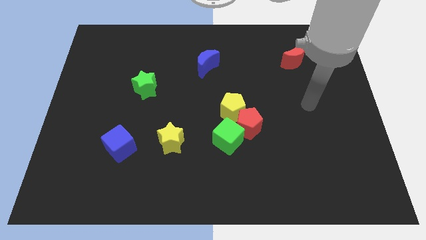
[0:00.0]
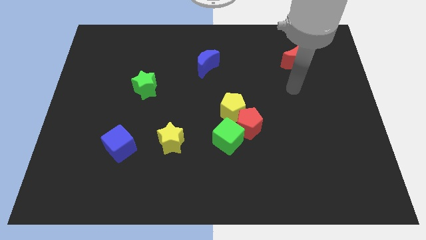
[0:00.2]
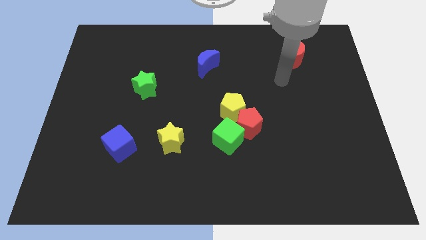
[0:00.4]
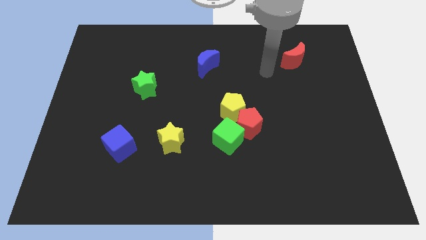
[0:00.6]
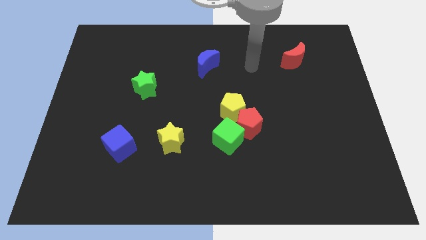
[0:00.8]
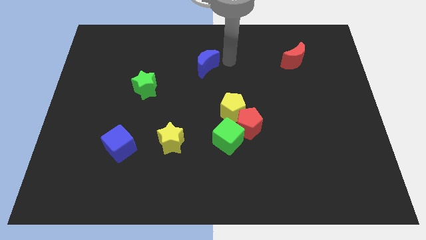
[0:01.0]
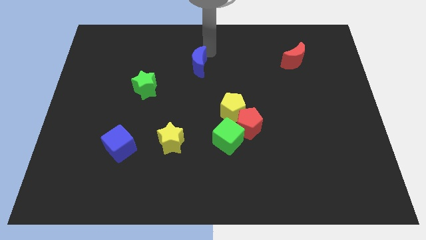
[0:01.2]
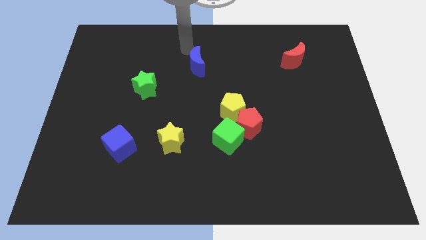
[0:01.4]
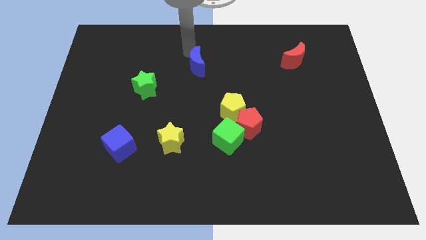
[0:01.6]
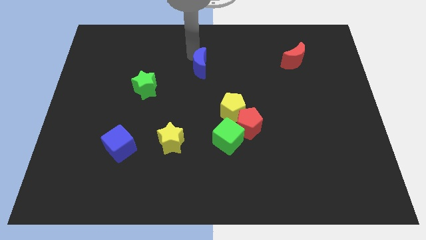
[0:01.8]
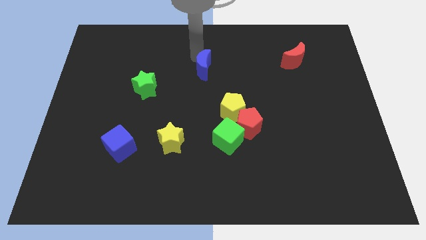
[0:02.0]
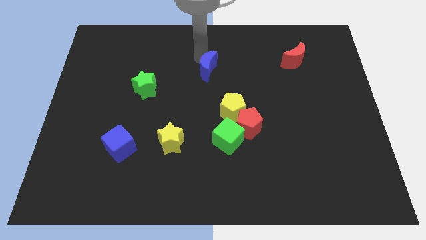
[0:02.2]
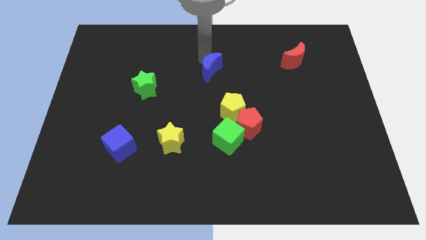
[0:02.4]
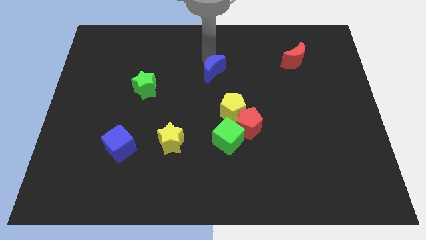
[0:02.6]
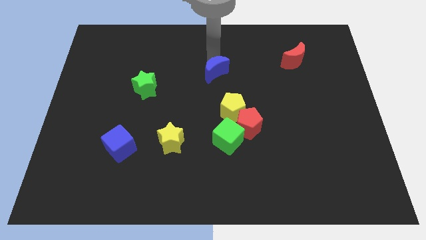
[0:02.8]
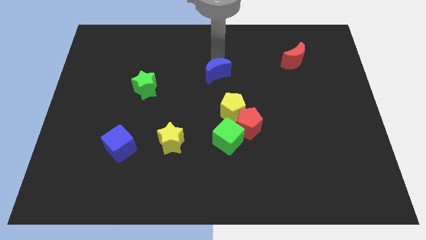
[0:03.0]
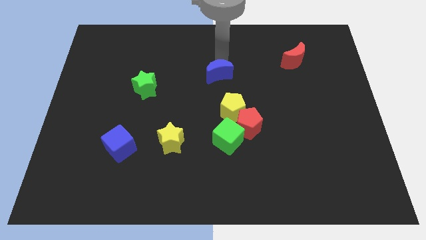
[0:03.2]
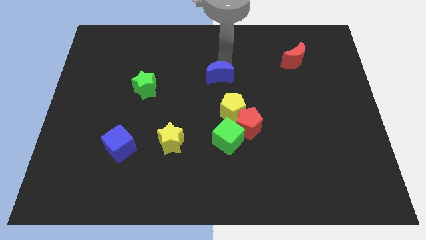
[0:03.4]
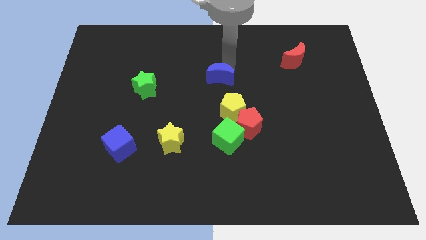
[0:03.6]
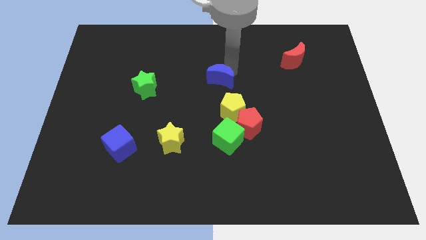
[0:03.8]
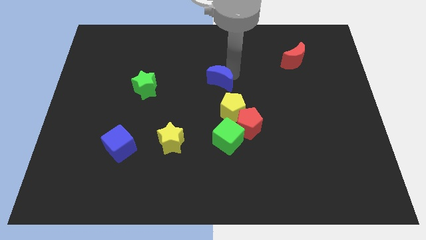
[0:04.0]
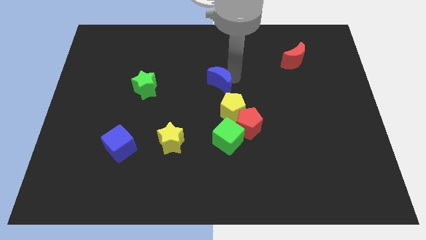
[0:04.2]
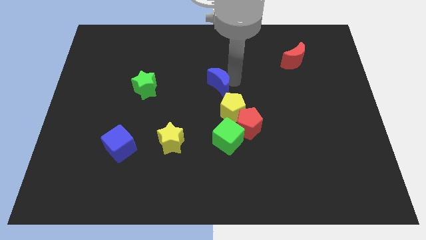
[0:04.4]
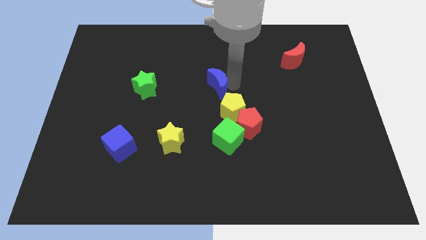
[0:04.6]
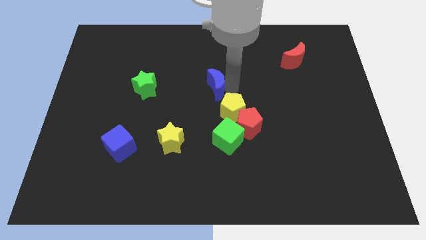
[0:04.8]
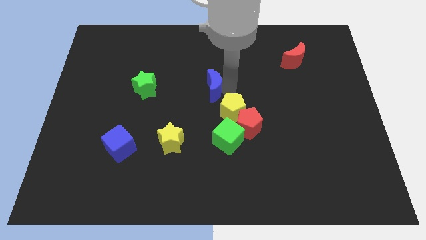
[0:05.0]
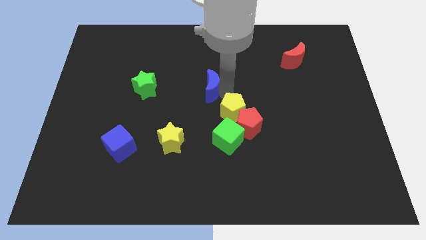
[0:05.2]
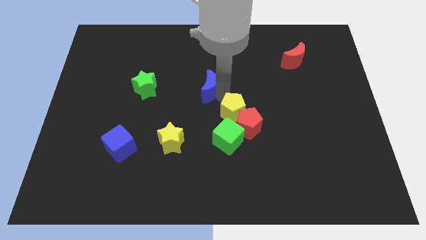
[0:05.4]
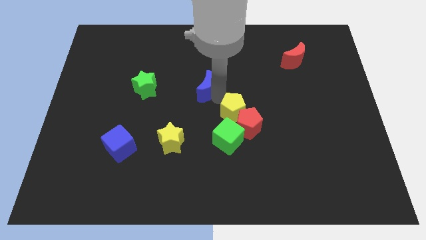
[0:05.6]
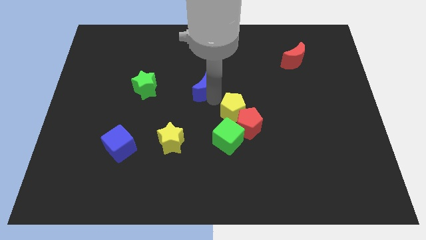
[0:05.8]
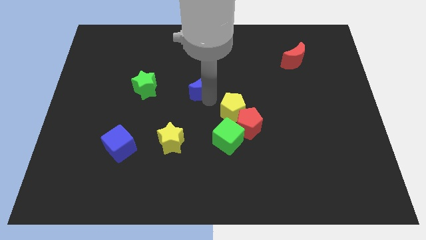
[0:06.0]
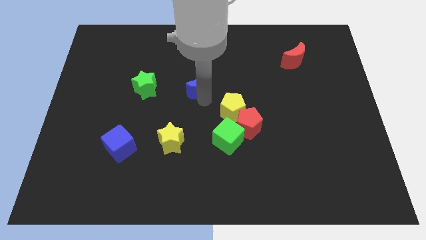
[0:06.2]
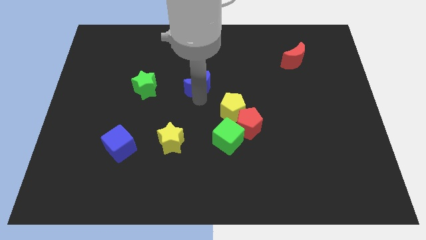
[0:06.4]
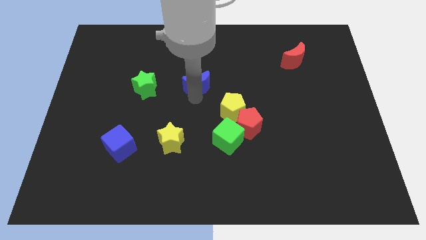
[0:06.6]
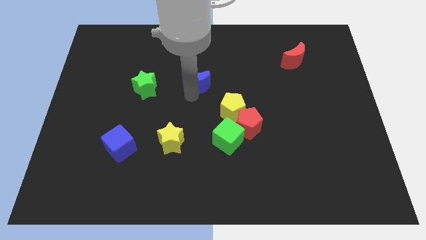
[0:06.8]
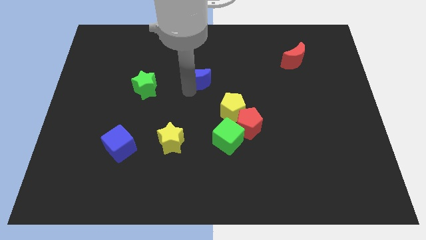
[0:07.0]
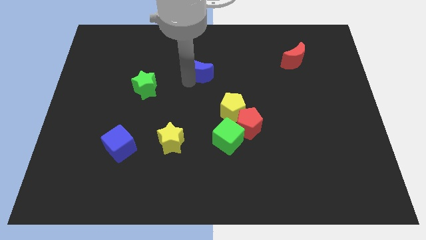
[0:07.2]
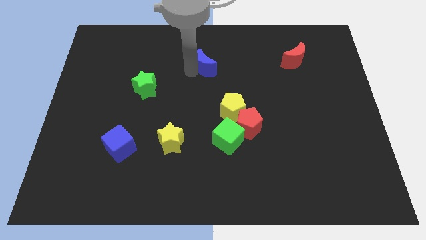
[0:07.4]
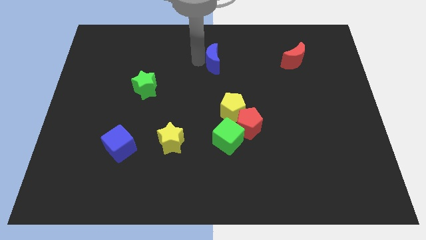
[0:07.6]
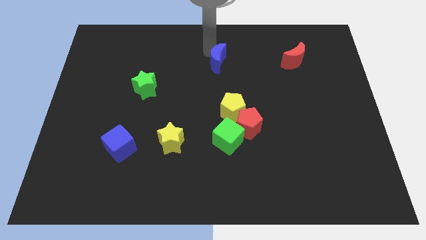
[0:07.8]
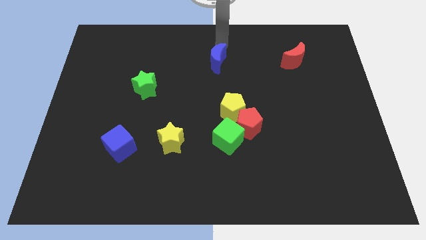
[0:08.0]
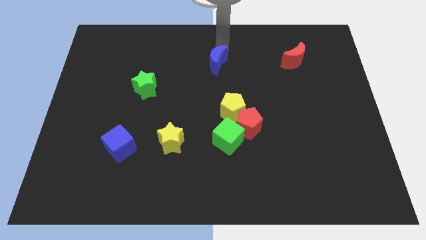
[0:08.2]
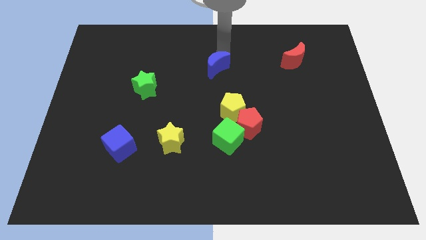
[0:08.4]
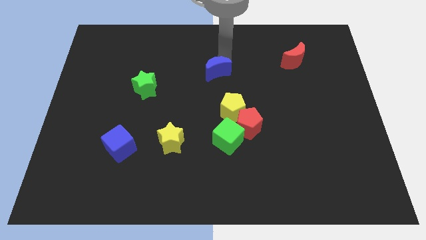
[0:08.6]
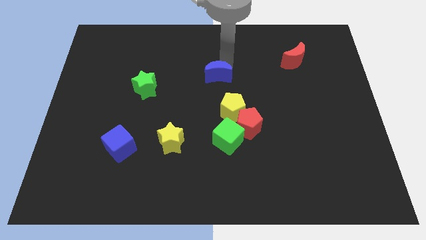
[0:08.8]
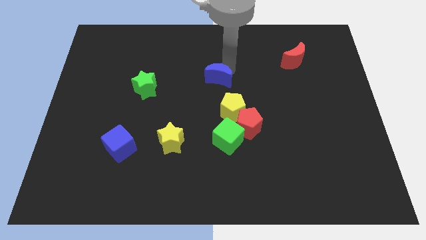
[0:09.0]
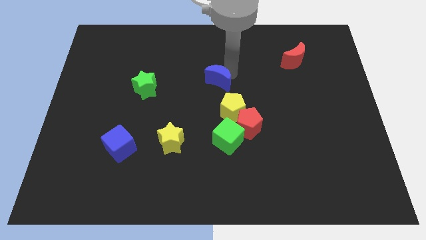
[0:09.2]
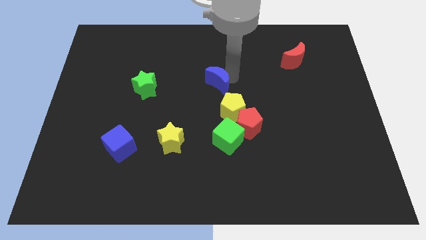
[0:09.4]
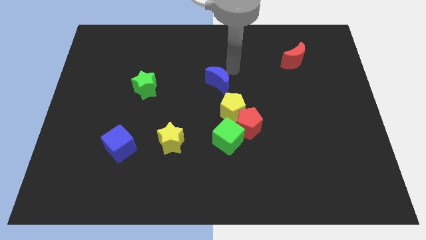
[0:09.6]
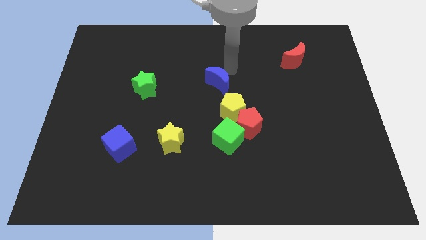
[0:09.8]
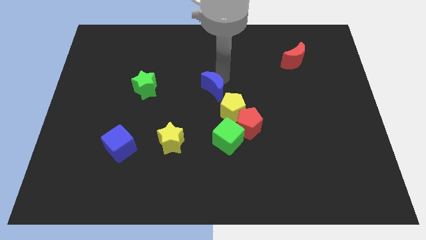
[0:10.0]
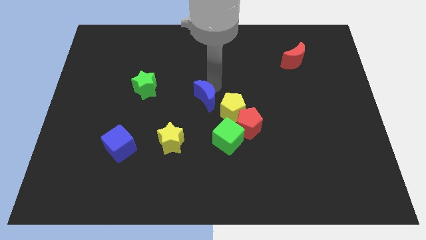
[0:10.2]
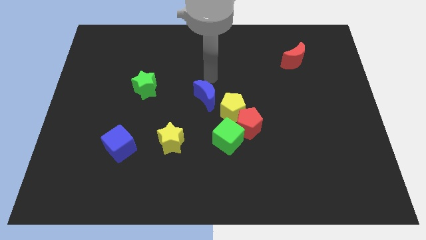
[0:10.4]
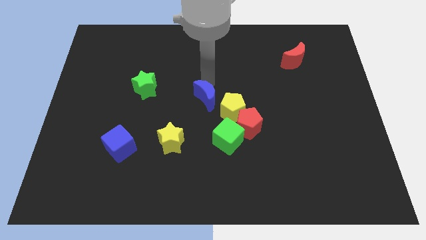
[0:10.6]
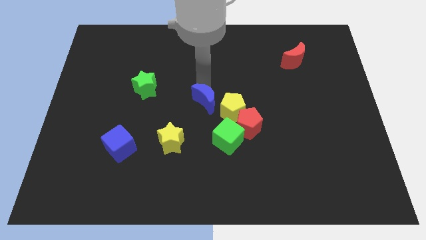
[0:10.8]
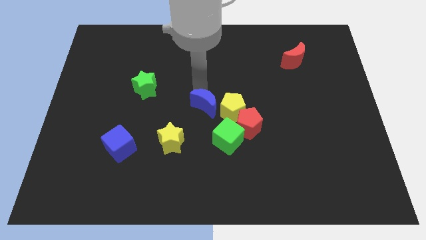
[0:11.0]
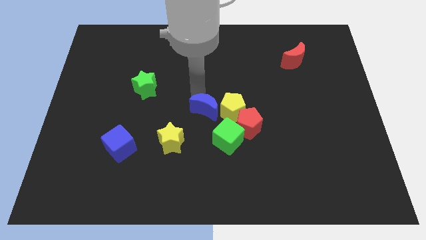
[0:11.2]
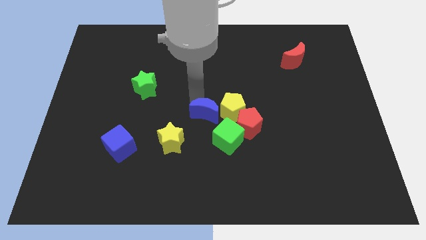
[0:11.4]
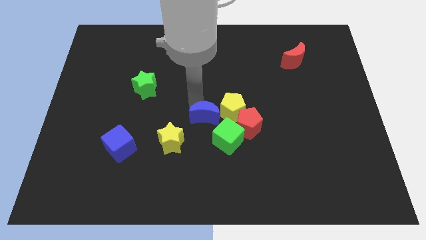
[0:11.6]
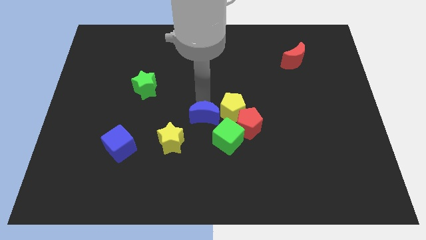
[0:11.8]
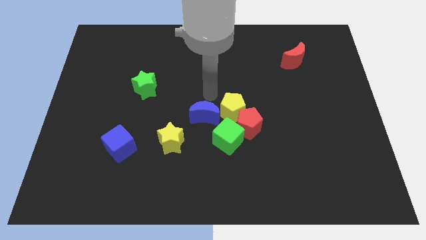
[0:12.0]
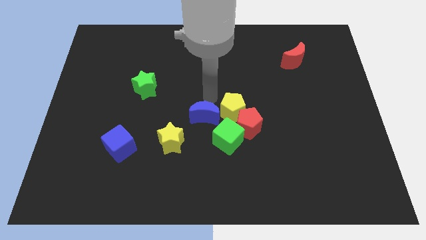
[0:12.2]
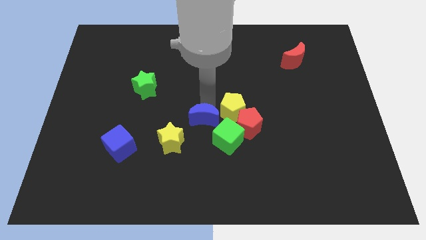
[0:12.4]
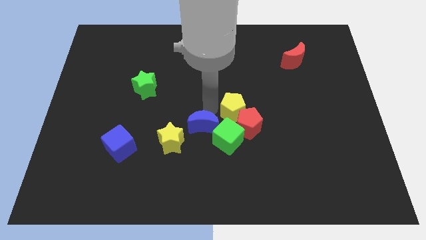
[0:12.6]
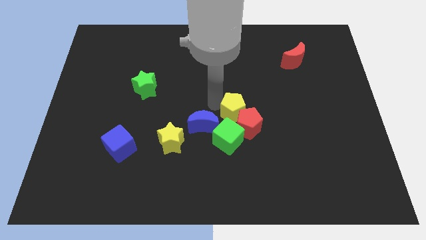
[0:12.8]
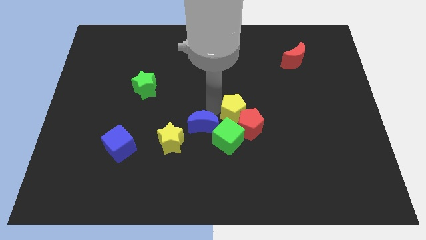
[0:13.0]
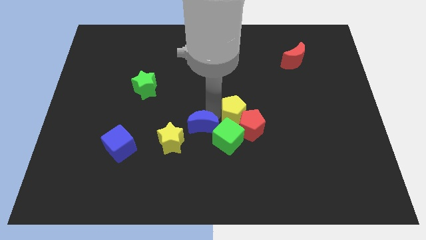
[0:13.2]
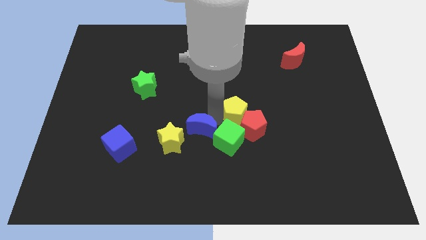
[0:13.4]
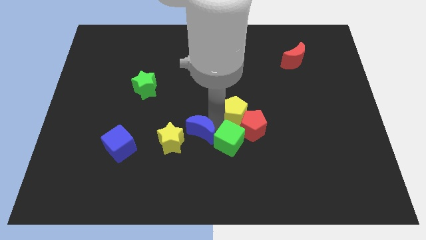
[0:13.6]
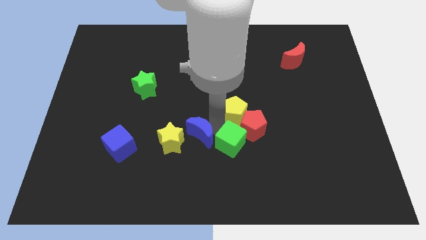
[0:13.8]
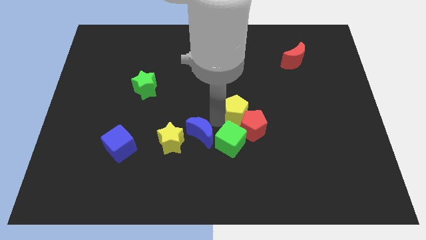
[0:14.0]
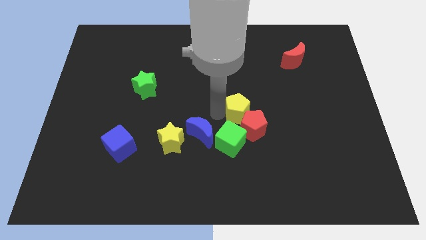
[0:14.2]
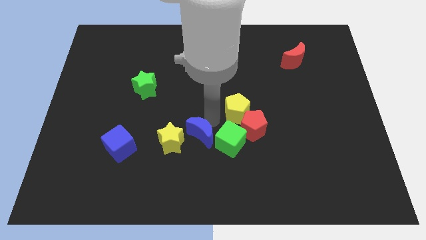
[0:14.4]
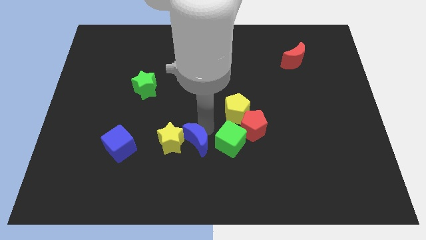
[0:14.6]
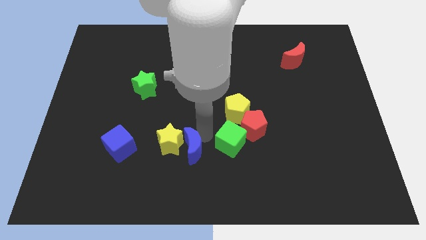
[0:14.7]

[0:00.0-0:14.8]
put the blue moon right of the blue cube
